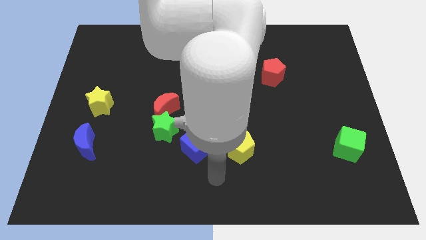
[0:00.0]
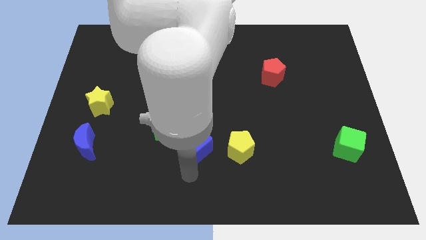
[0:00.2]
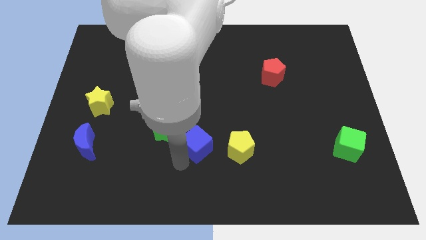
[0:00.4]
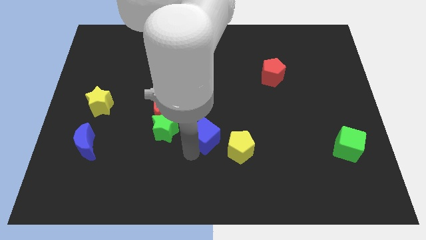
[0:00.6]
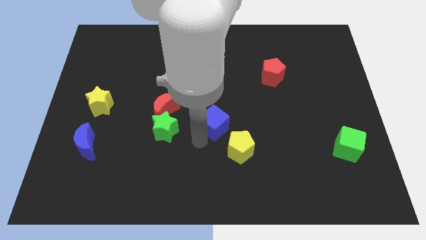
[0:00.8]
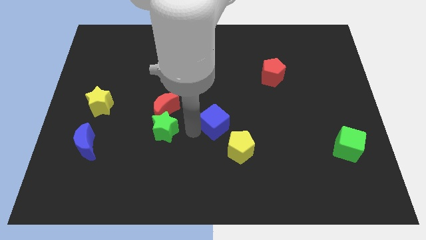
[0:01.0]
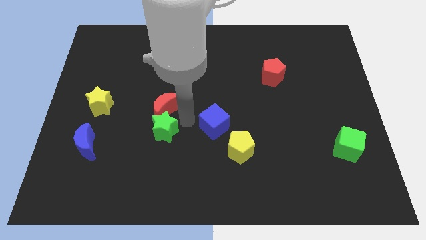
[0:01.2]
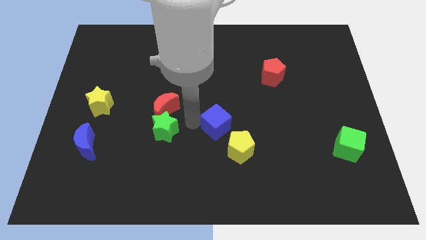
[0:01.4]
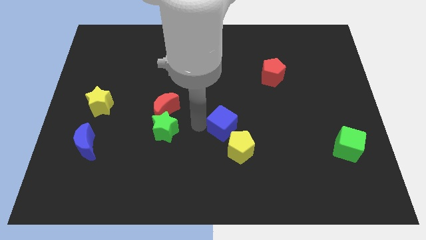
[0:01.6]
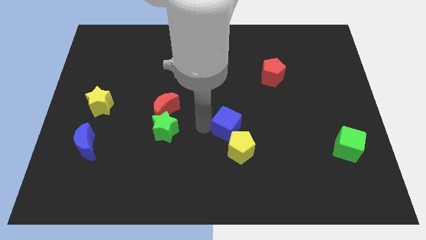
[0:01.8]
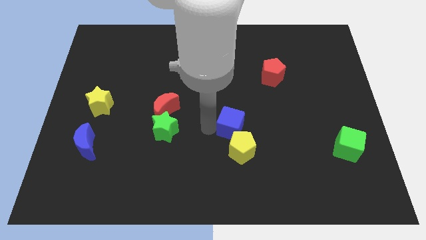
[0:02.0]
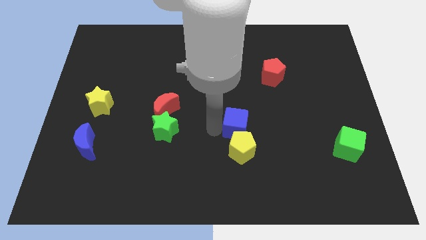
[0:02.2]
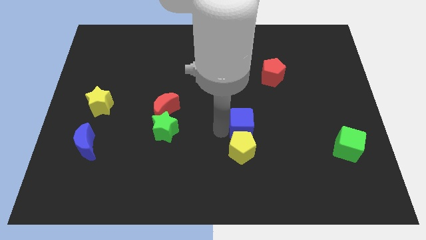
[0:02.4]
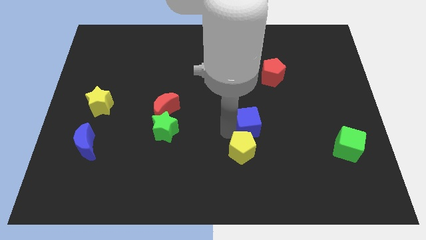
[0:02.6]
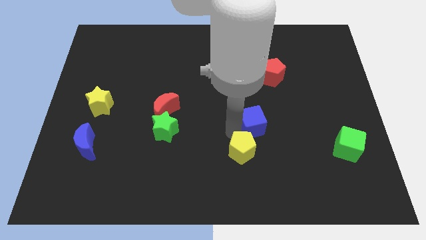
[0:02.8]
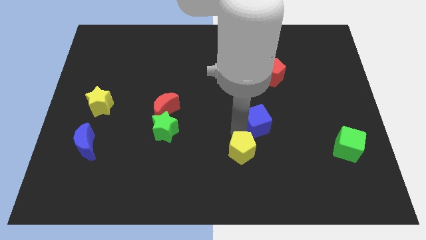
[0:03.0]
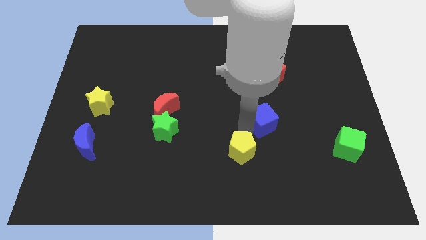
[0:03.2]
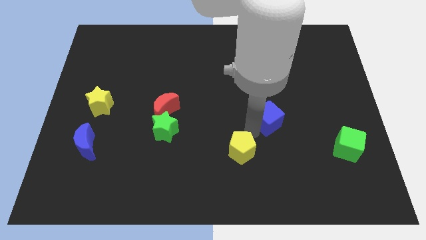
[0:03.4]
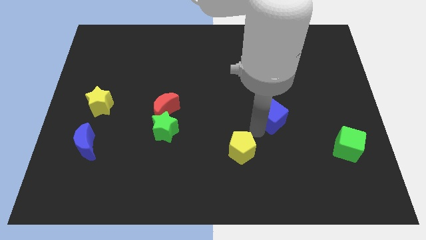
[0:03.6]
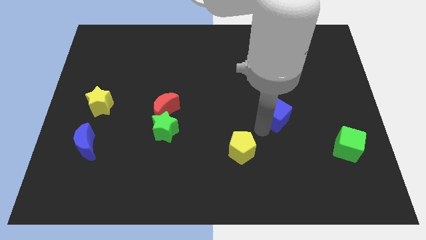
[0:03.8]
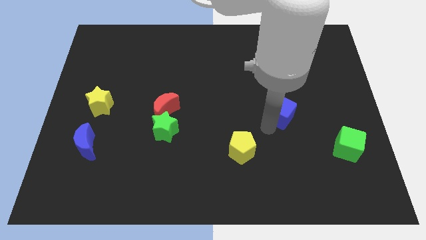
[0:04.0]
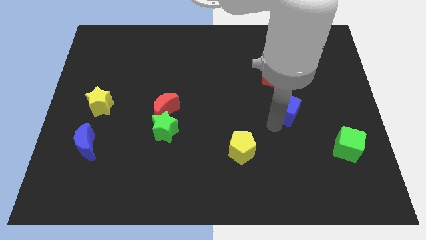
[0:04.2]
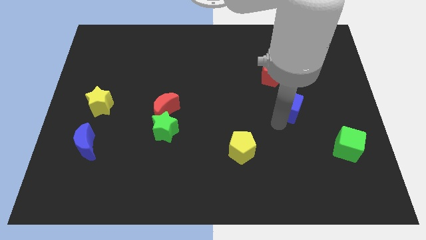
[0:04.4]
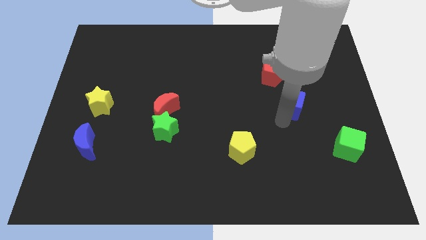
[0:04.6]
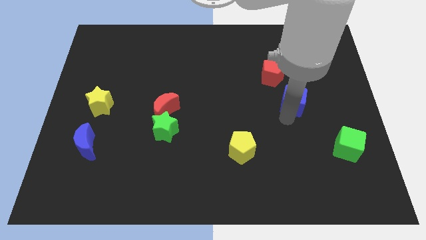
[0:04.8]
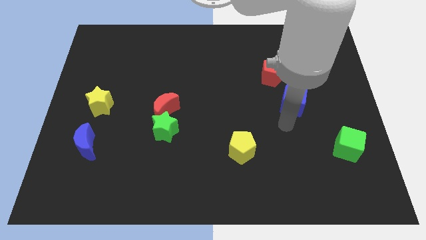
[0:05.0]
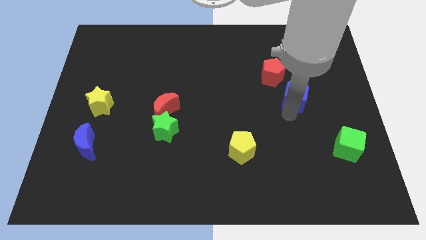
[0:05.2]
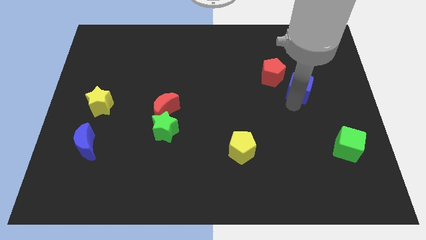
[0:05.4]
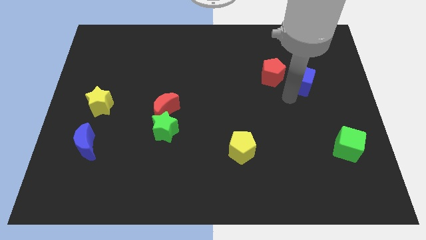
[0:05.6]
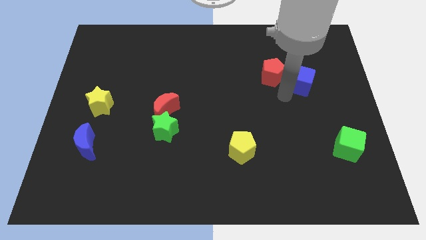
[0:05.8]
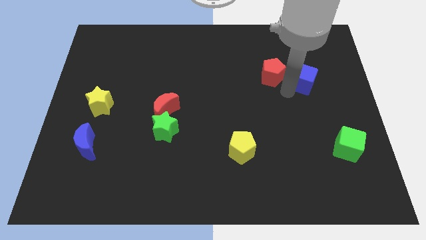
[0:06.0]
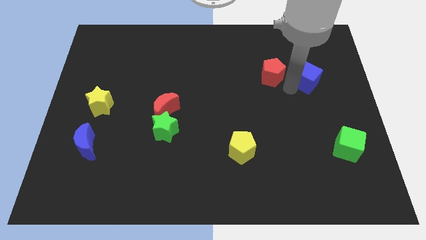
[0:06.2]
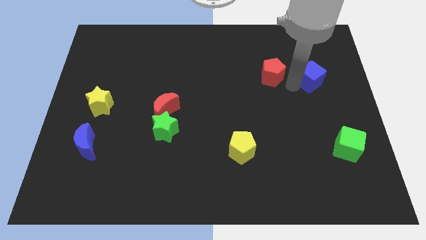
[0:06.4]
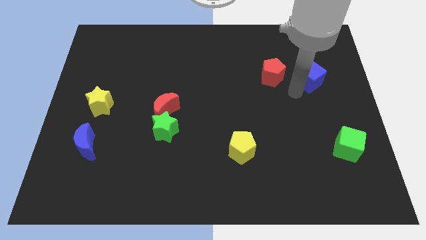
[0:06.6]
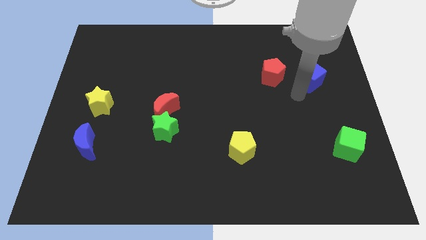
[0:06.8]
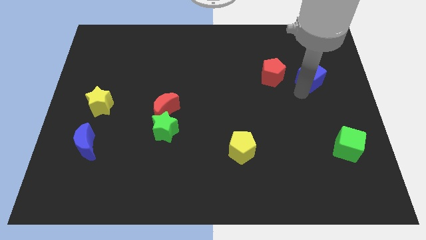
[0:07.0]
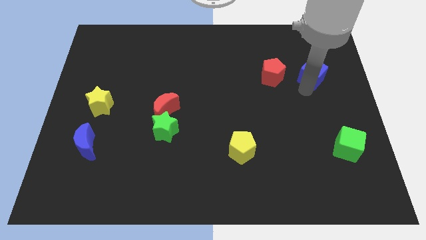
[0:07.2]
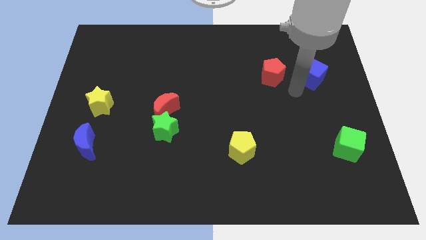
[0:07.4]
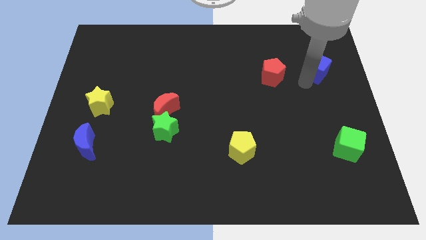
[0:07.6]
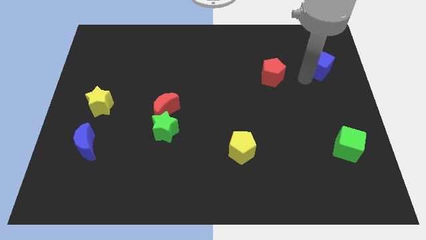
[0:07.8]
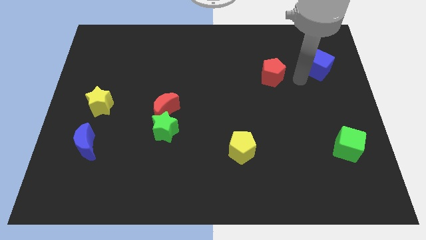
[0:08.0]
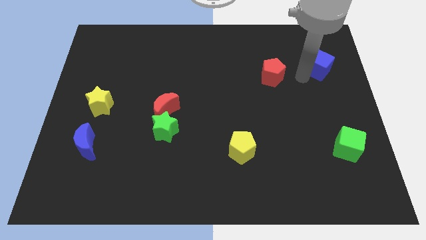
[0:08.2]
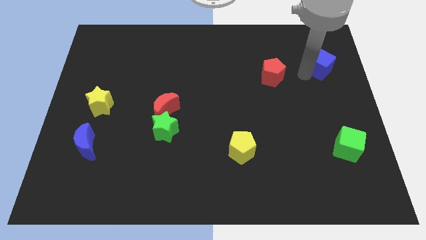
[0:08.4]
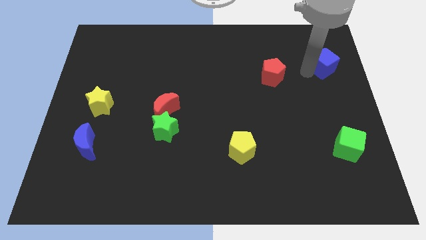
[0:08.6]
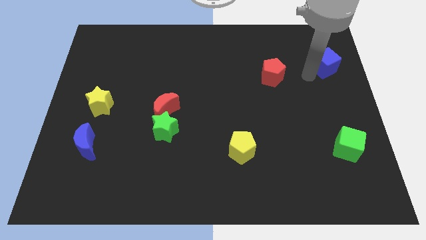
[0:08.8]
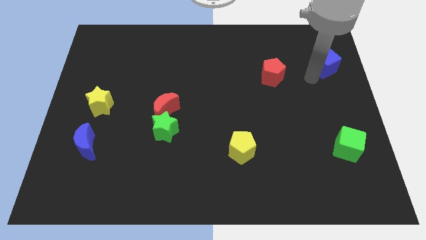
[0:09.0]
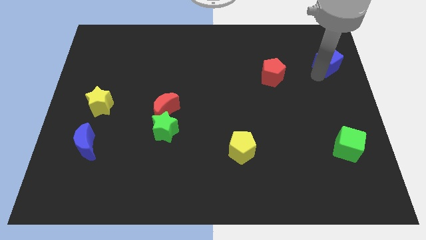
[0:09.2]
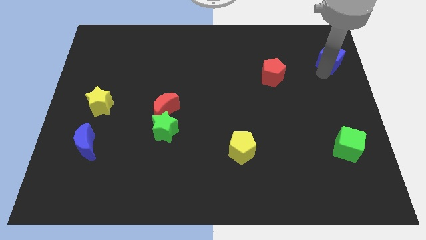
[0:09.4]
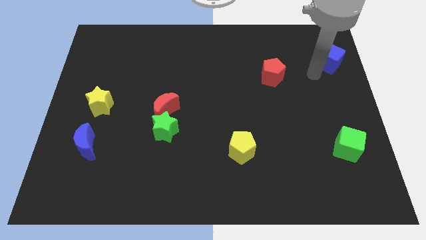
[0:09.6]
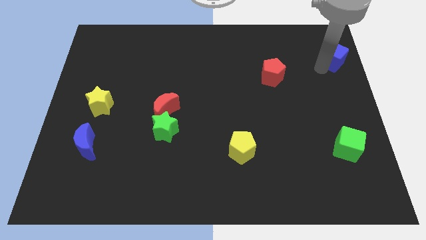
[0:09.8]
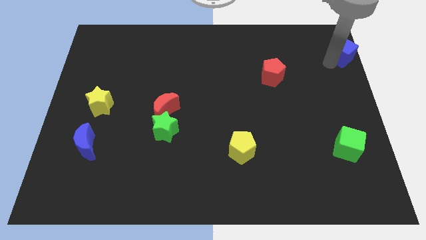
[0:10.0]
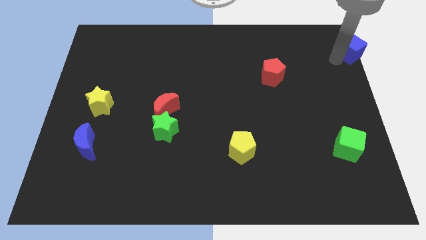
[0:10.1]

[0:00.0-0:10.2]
push the blue cube to the top right corner

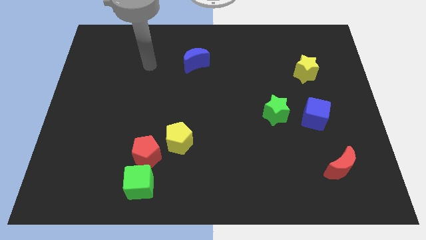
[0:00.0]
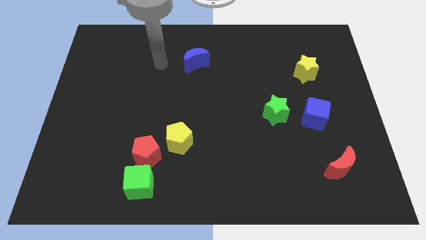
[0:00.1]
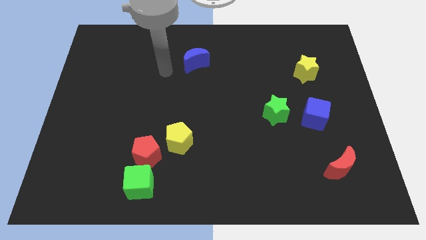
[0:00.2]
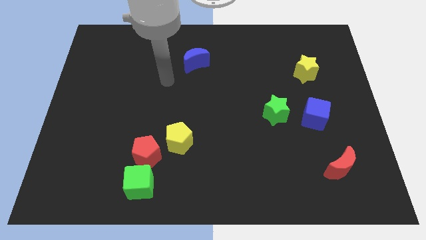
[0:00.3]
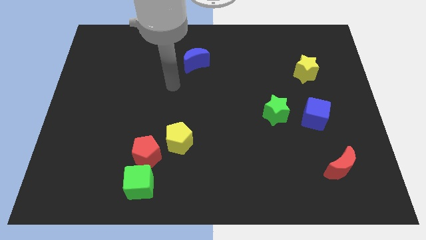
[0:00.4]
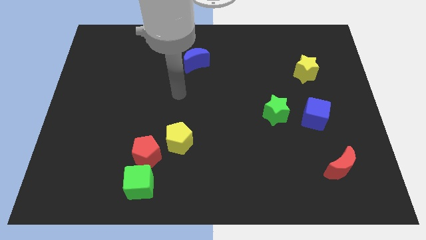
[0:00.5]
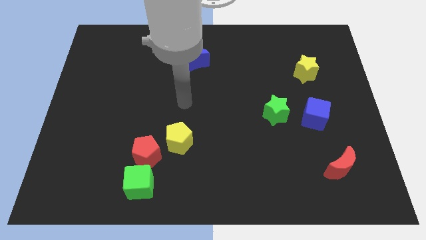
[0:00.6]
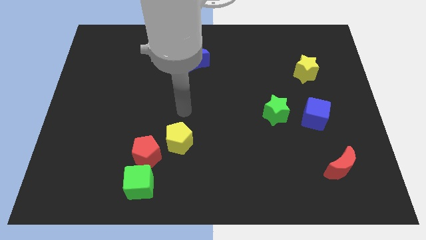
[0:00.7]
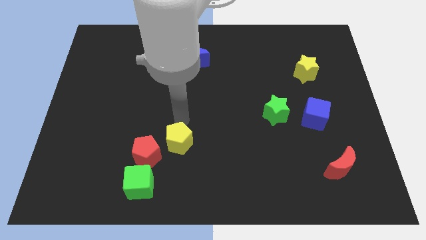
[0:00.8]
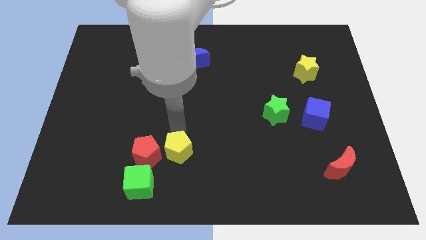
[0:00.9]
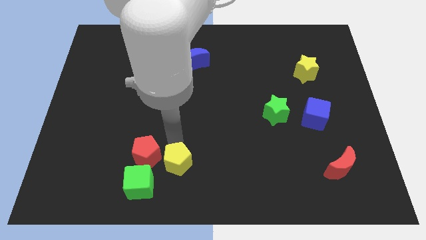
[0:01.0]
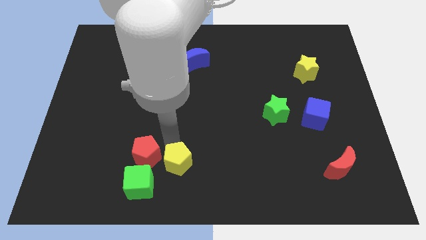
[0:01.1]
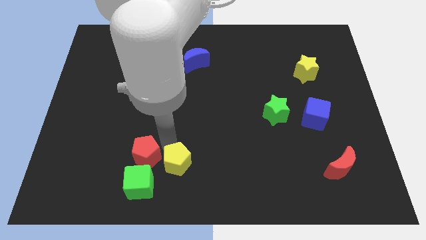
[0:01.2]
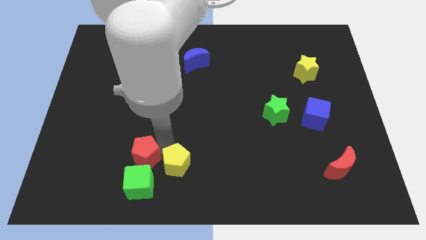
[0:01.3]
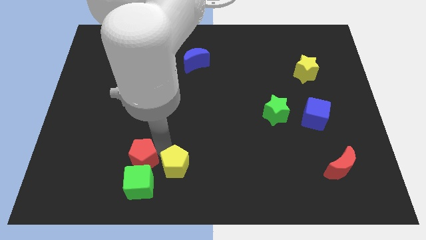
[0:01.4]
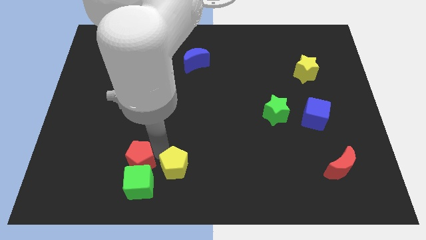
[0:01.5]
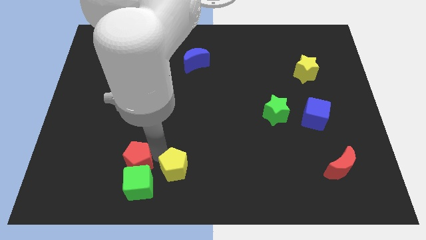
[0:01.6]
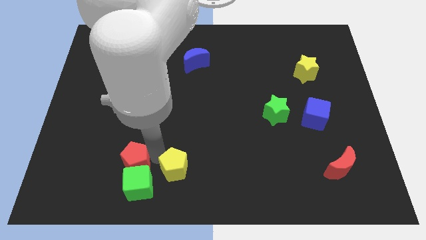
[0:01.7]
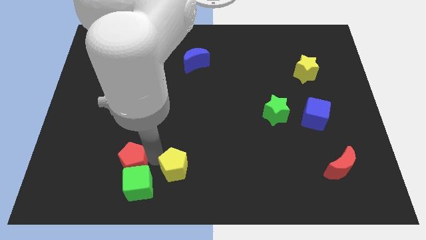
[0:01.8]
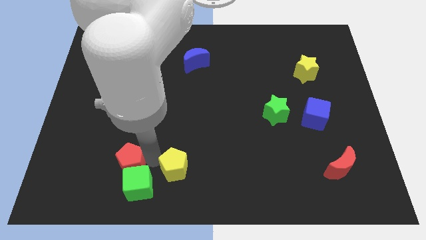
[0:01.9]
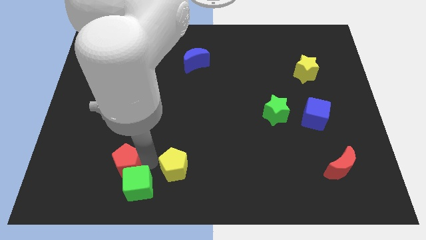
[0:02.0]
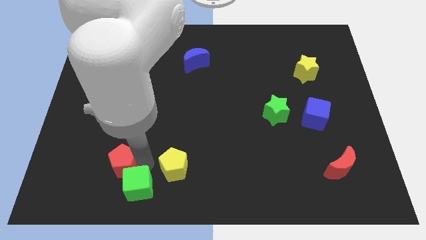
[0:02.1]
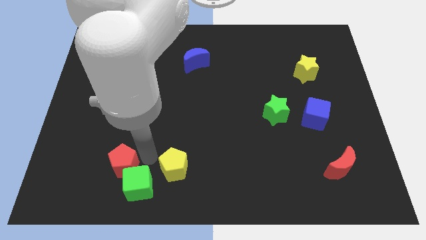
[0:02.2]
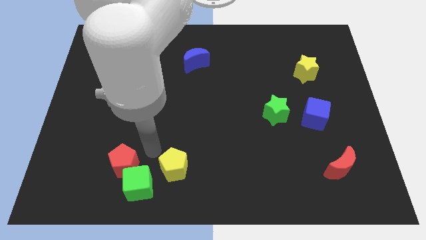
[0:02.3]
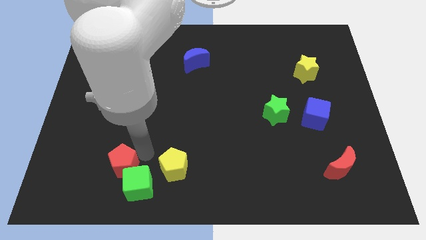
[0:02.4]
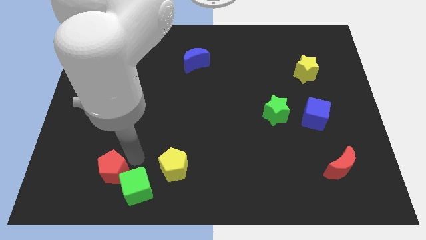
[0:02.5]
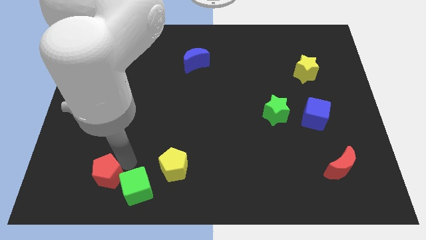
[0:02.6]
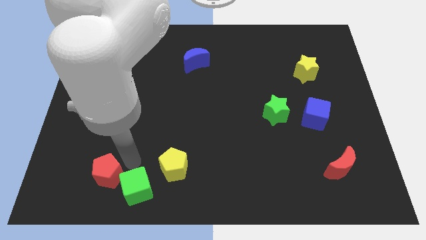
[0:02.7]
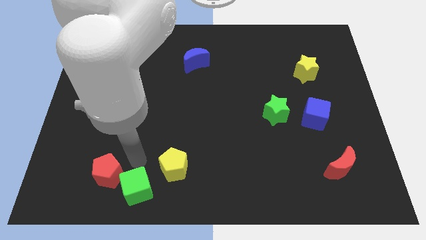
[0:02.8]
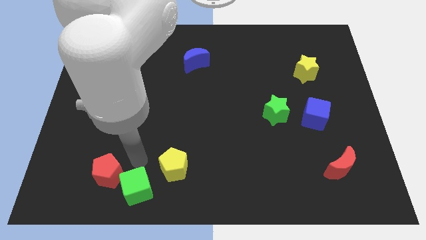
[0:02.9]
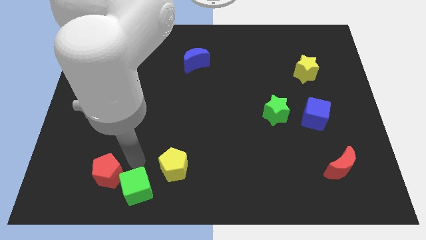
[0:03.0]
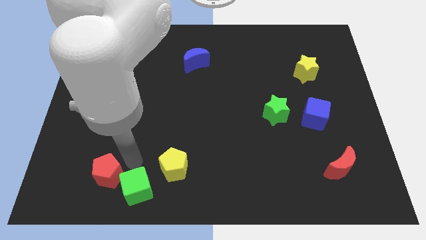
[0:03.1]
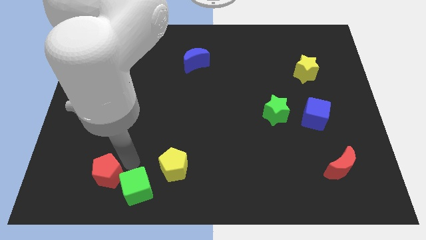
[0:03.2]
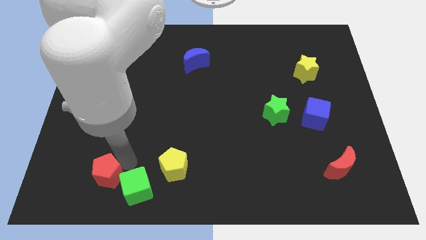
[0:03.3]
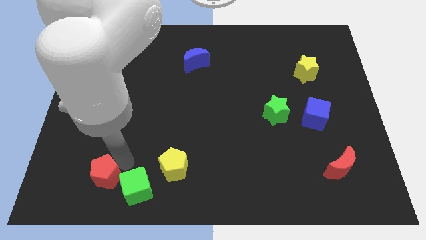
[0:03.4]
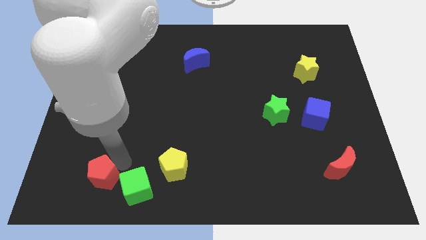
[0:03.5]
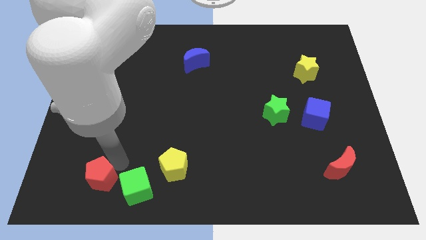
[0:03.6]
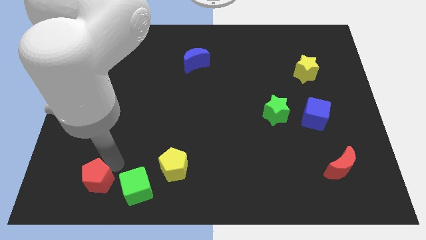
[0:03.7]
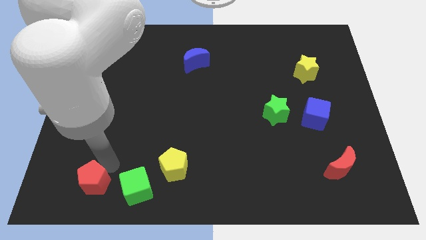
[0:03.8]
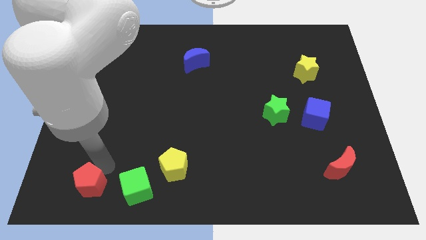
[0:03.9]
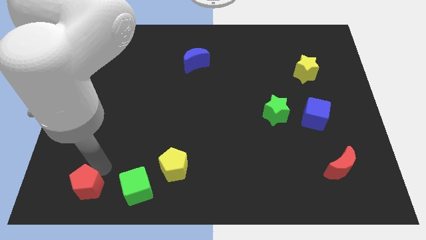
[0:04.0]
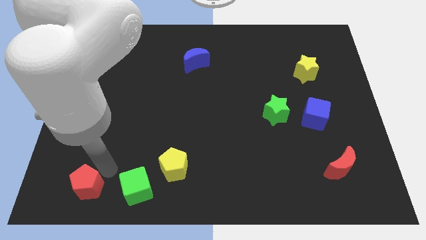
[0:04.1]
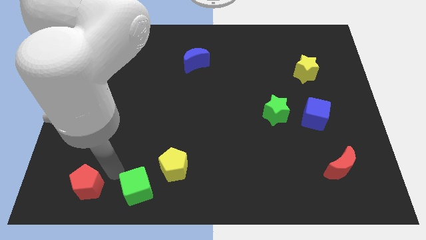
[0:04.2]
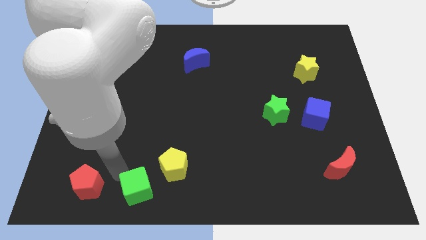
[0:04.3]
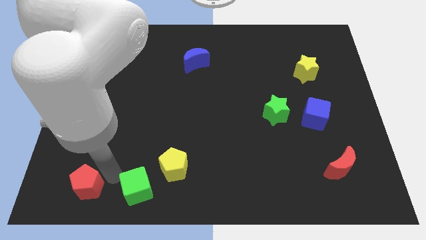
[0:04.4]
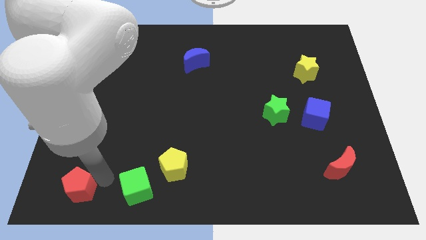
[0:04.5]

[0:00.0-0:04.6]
push the red pentagon to the lower left corner
